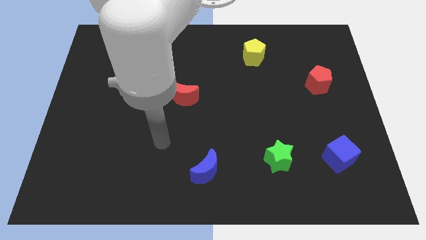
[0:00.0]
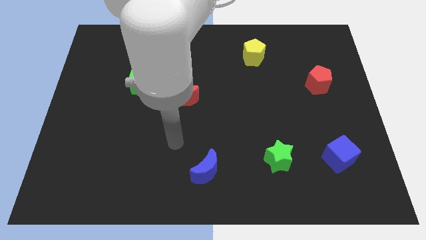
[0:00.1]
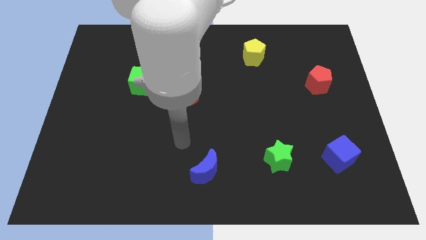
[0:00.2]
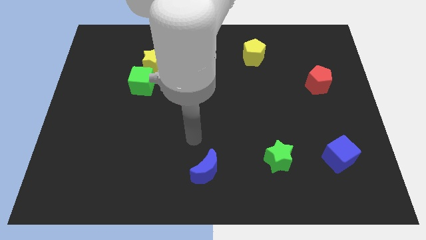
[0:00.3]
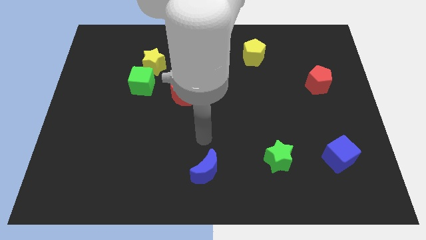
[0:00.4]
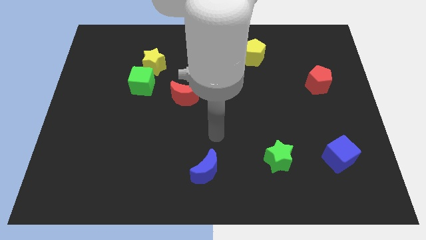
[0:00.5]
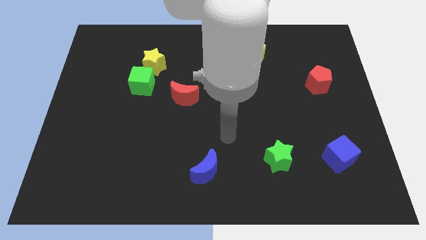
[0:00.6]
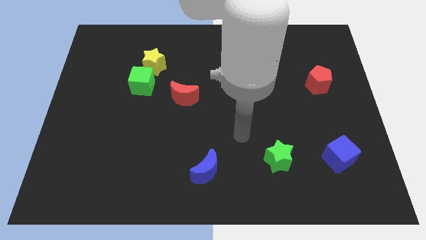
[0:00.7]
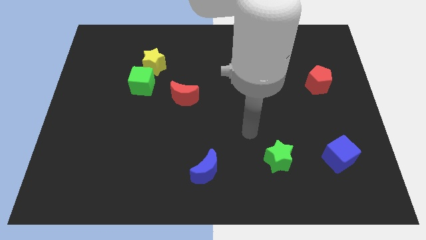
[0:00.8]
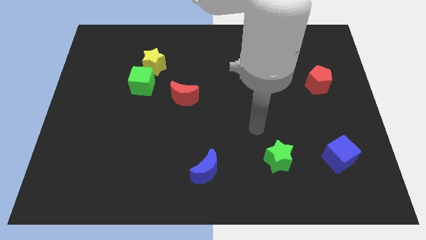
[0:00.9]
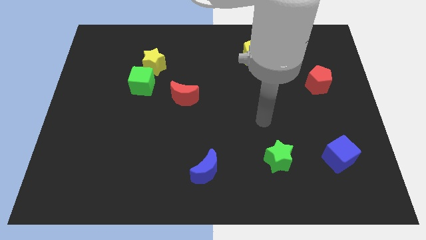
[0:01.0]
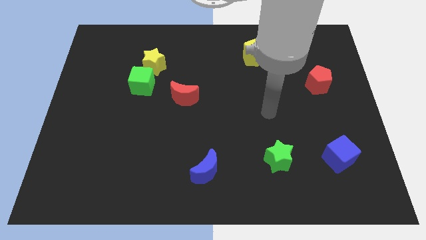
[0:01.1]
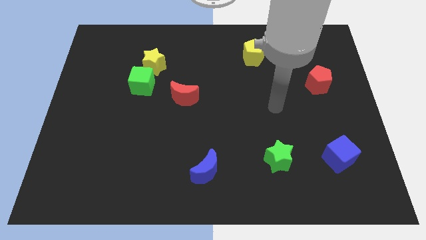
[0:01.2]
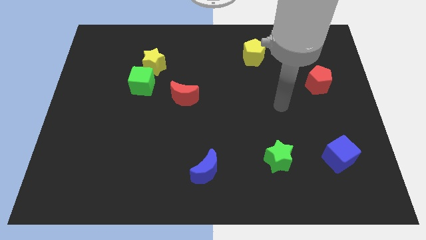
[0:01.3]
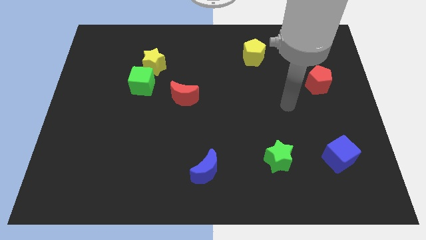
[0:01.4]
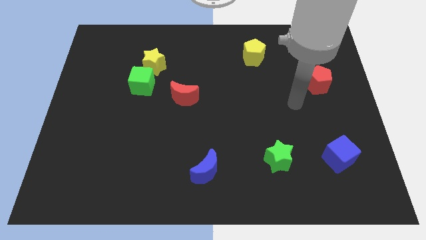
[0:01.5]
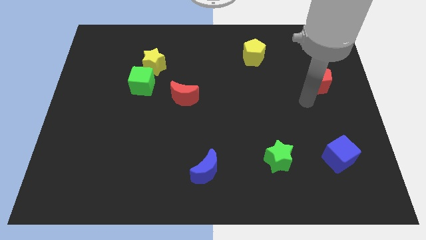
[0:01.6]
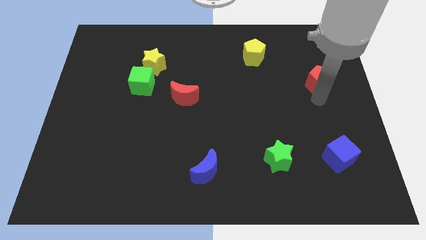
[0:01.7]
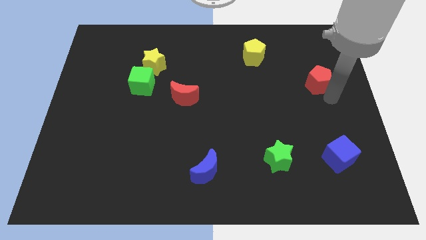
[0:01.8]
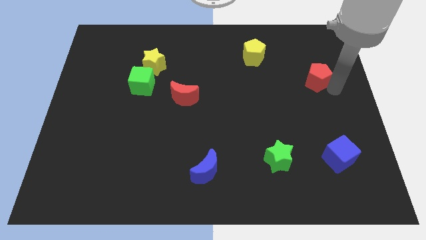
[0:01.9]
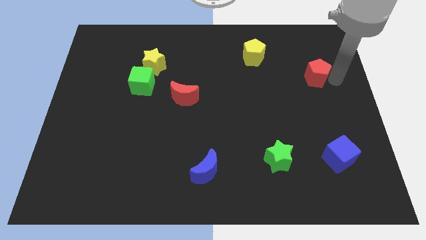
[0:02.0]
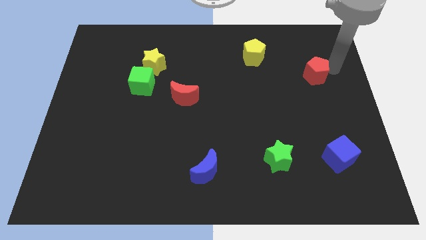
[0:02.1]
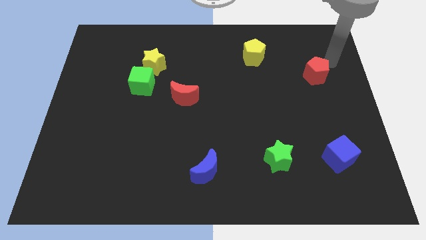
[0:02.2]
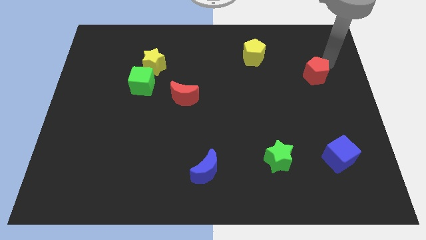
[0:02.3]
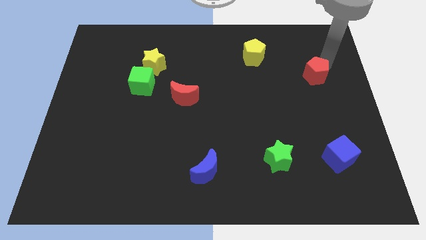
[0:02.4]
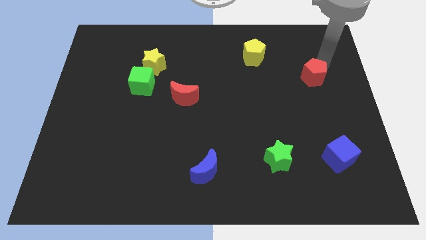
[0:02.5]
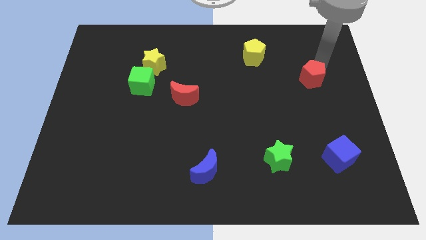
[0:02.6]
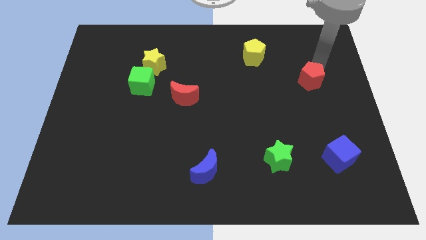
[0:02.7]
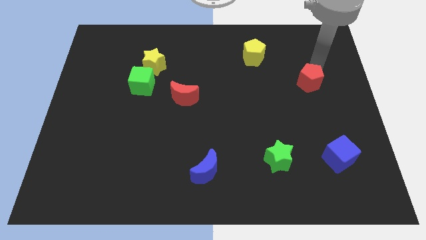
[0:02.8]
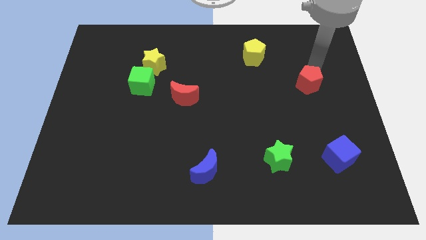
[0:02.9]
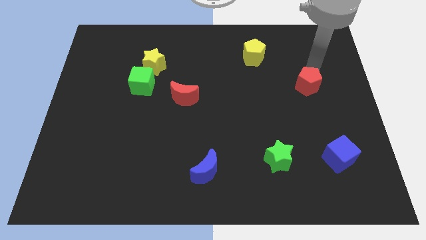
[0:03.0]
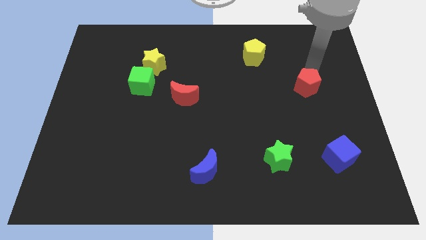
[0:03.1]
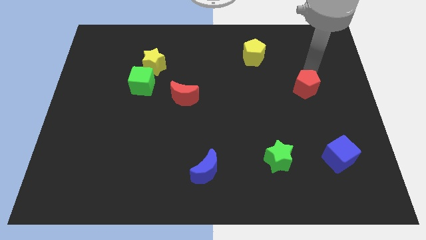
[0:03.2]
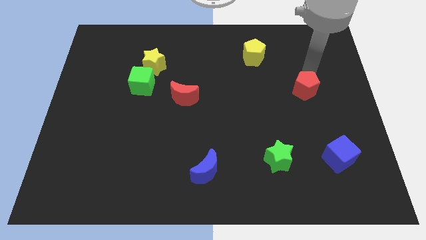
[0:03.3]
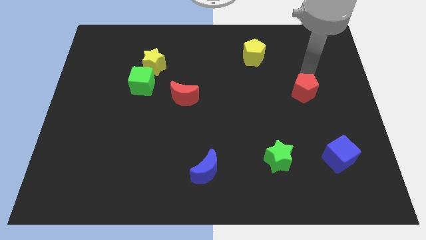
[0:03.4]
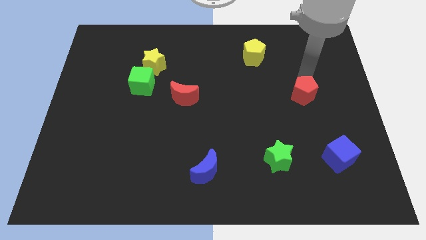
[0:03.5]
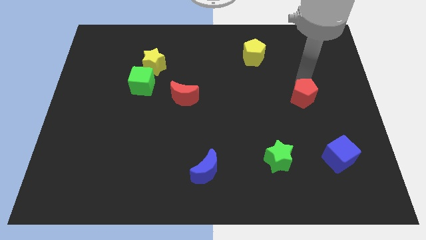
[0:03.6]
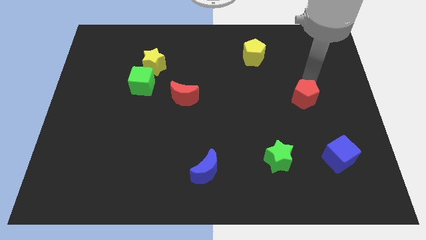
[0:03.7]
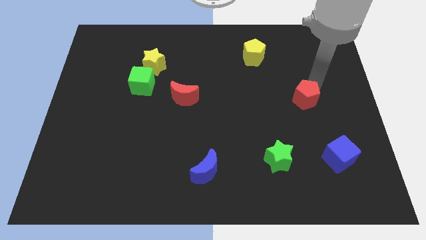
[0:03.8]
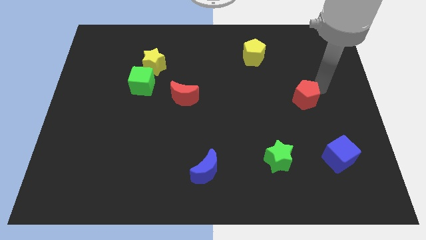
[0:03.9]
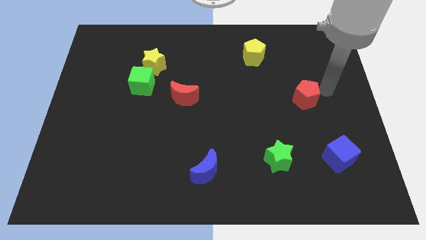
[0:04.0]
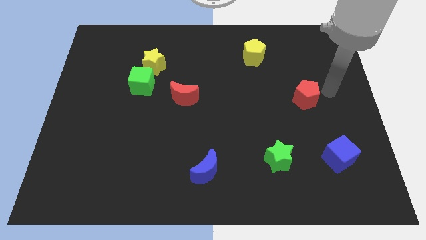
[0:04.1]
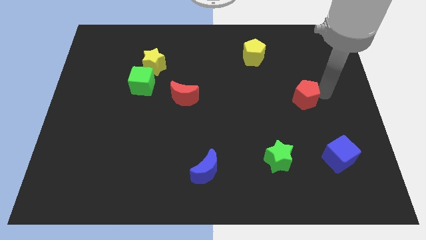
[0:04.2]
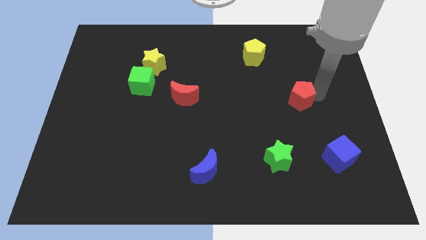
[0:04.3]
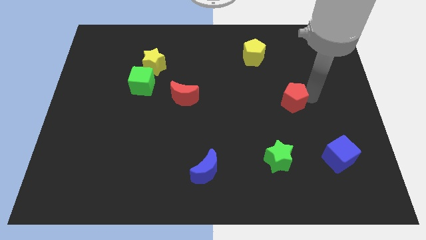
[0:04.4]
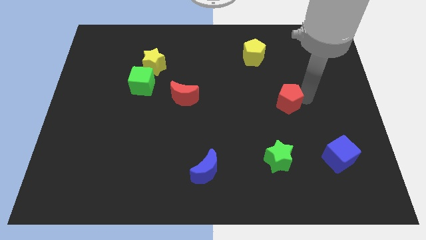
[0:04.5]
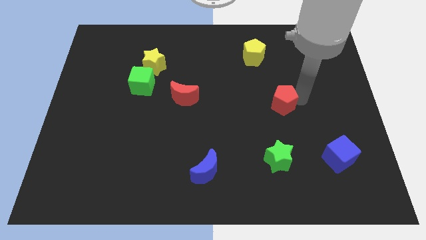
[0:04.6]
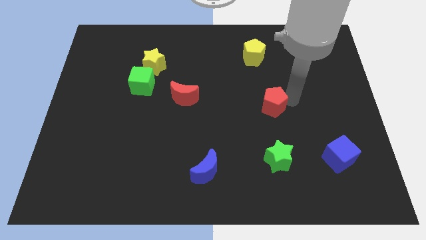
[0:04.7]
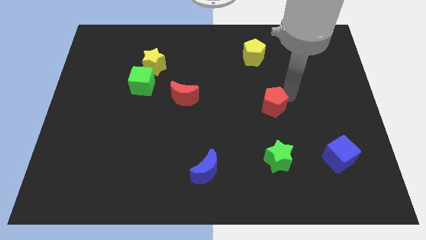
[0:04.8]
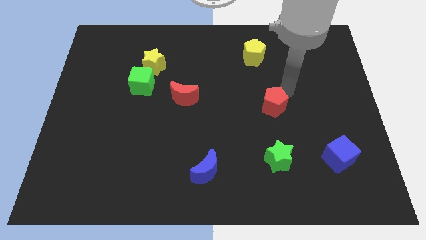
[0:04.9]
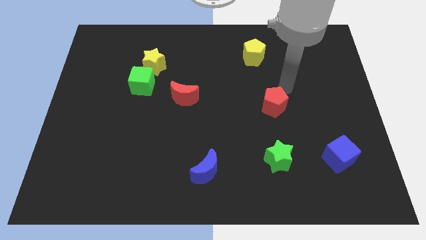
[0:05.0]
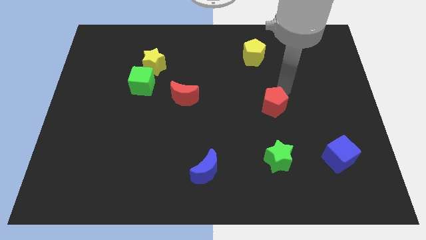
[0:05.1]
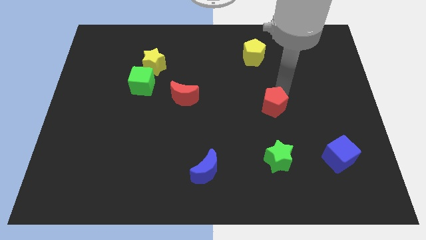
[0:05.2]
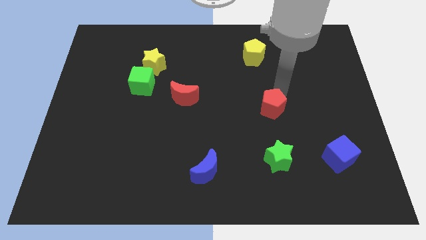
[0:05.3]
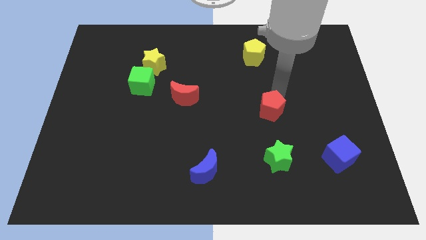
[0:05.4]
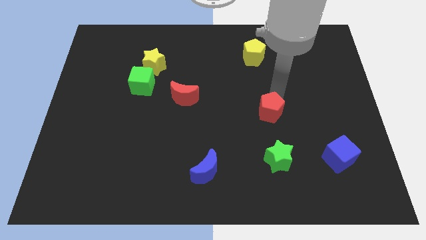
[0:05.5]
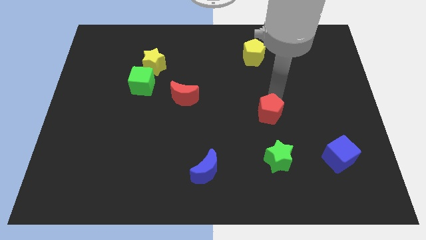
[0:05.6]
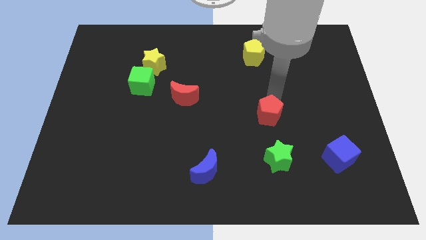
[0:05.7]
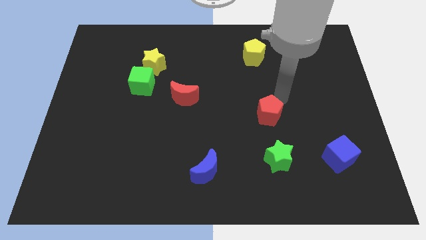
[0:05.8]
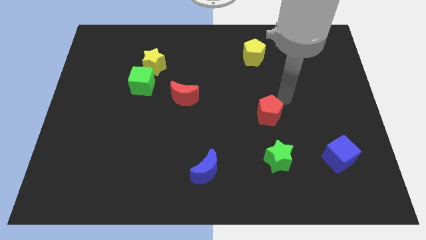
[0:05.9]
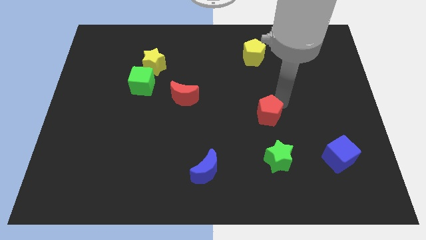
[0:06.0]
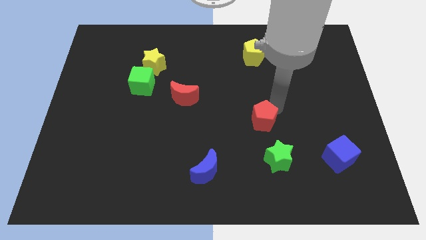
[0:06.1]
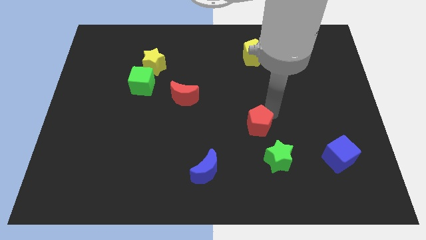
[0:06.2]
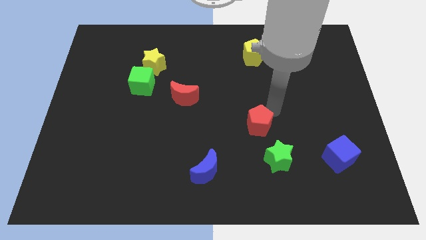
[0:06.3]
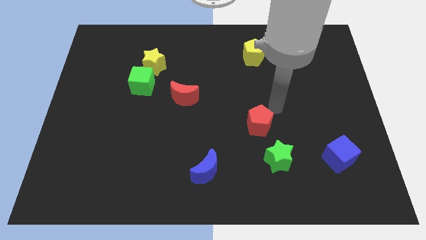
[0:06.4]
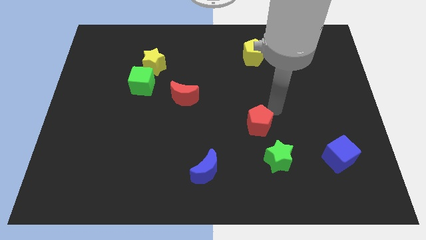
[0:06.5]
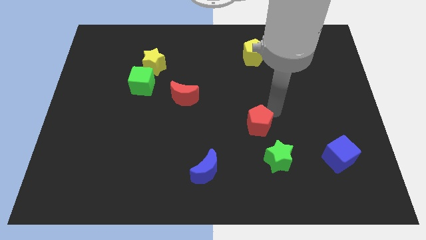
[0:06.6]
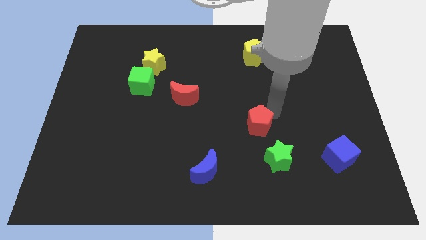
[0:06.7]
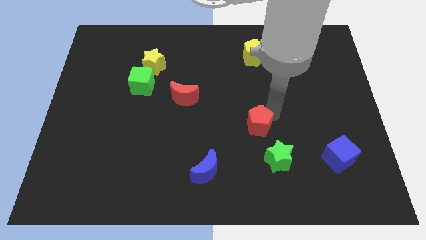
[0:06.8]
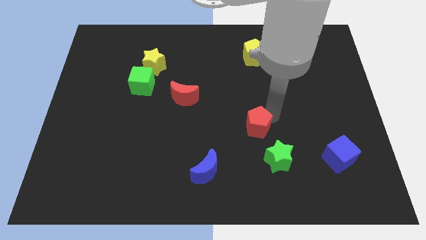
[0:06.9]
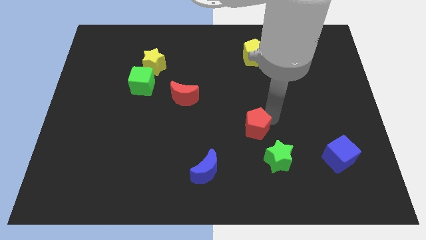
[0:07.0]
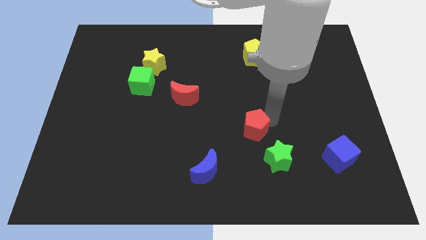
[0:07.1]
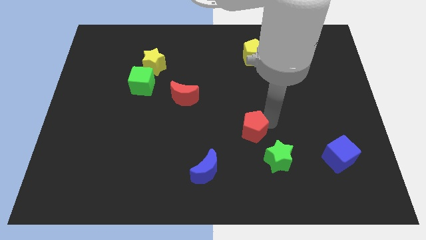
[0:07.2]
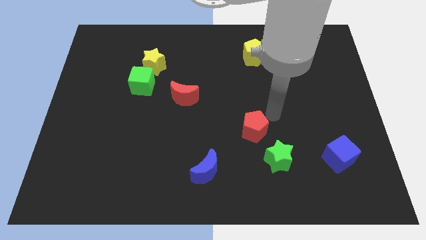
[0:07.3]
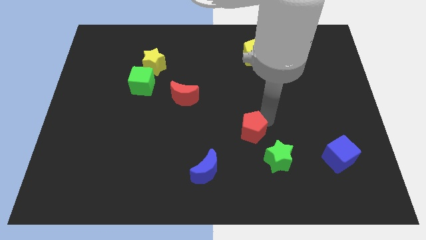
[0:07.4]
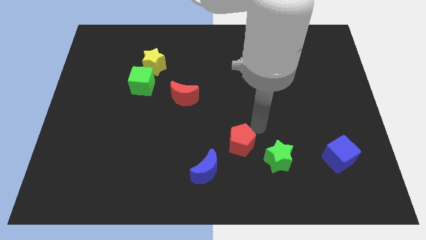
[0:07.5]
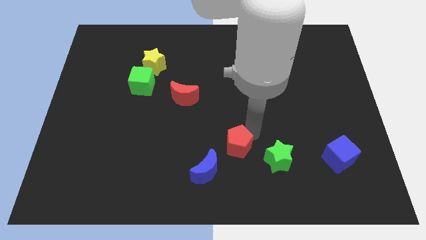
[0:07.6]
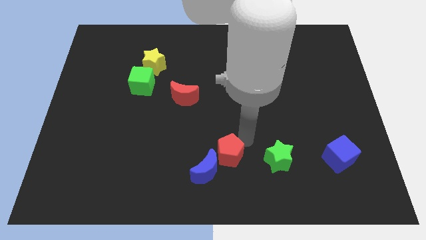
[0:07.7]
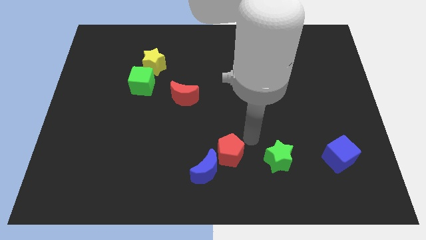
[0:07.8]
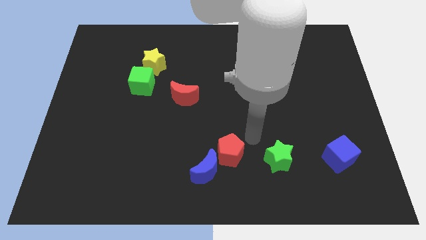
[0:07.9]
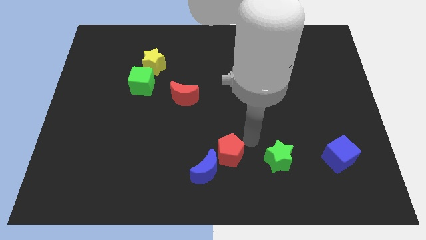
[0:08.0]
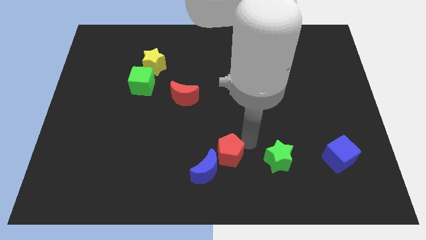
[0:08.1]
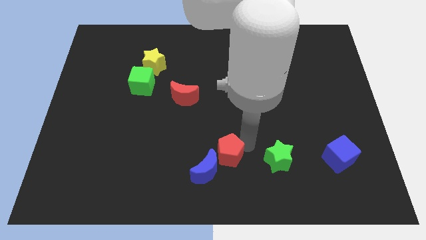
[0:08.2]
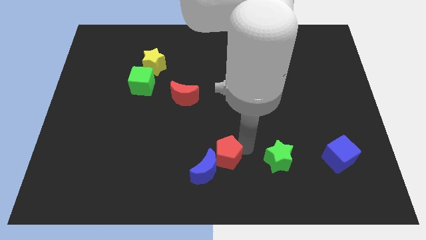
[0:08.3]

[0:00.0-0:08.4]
put the red pentagon towards the blue moon
